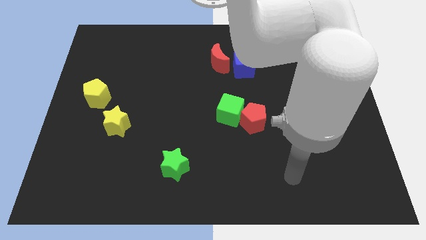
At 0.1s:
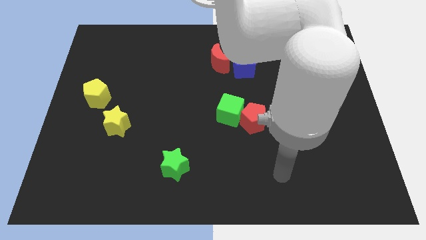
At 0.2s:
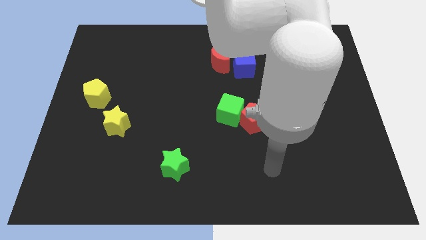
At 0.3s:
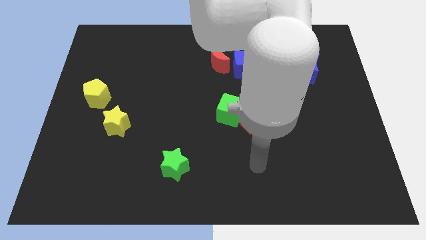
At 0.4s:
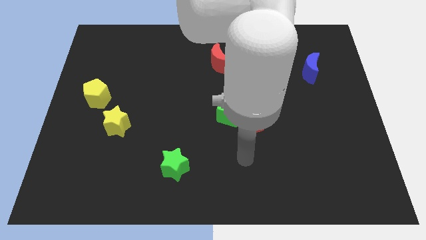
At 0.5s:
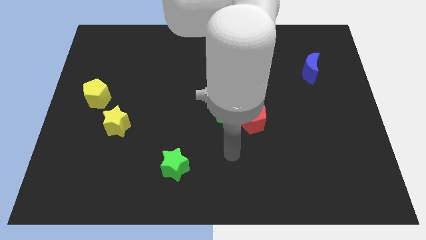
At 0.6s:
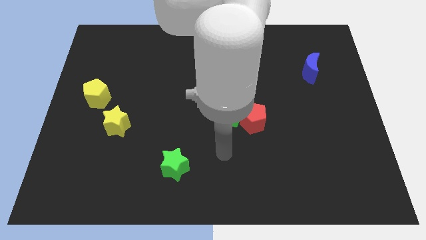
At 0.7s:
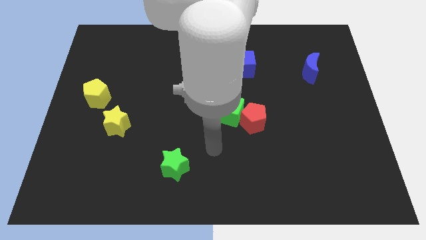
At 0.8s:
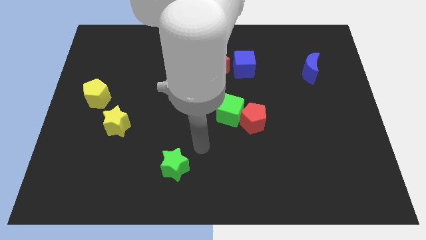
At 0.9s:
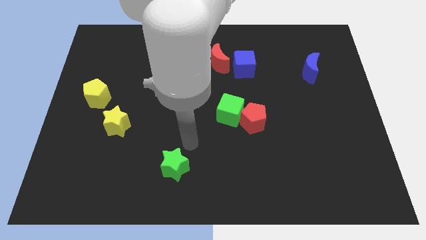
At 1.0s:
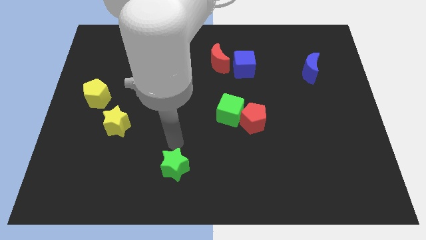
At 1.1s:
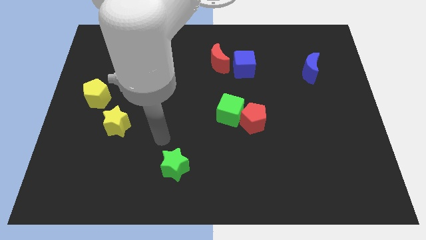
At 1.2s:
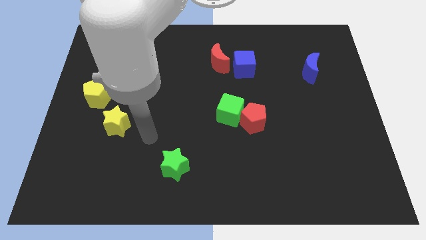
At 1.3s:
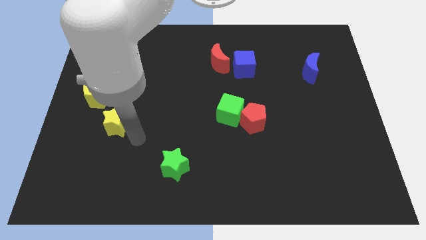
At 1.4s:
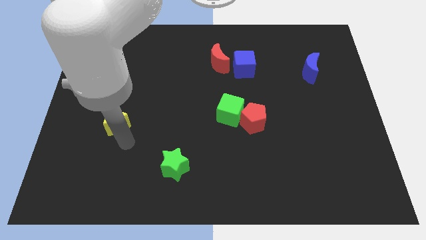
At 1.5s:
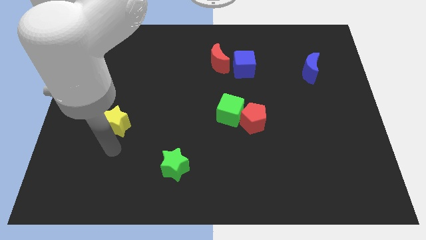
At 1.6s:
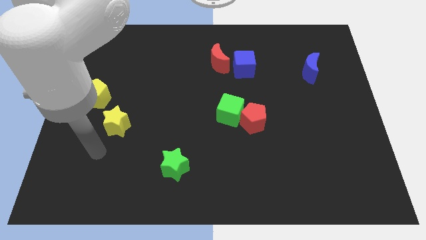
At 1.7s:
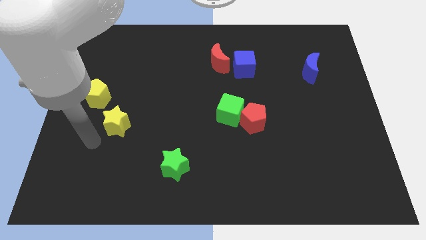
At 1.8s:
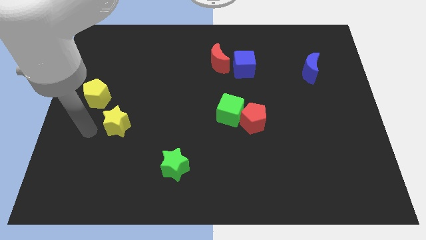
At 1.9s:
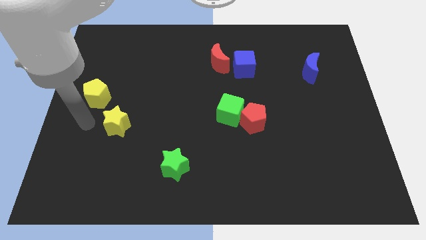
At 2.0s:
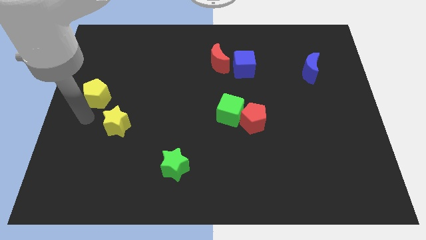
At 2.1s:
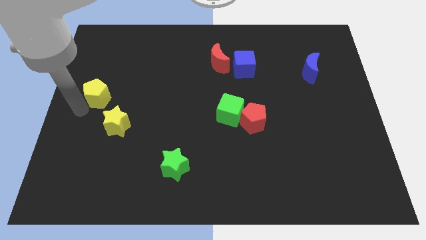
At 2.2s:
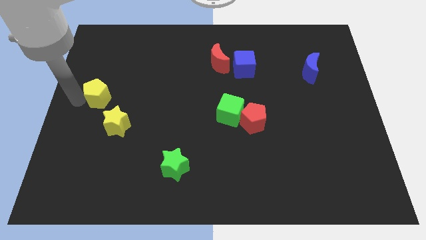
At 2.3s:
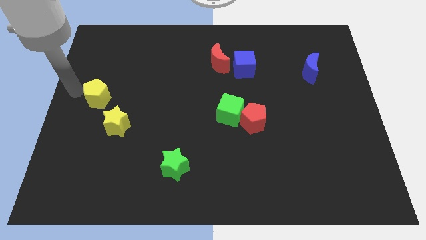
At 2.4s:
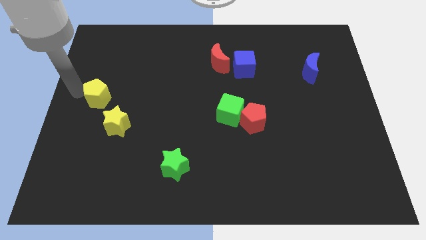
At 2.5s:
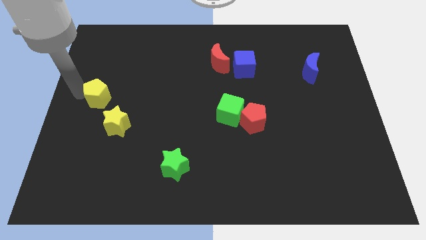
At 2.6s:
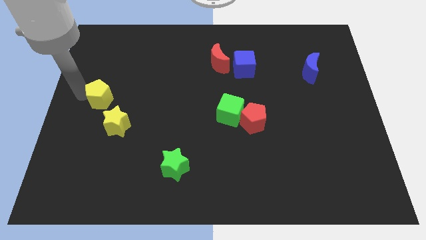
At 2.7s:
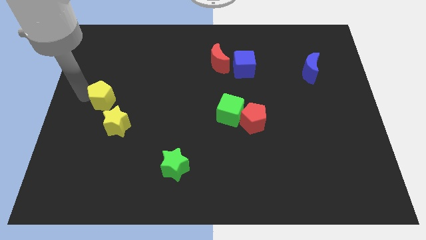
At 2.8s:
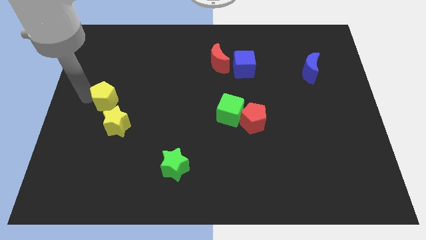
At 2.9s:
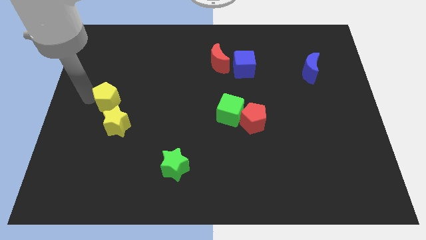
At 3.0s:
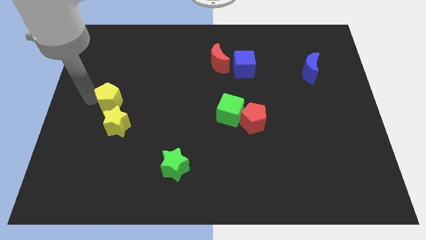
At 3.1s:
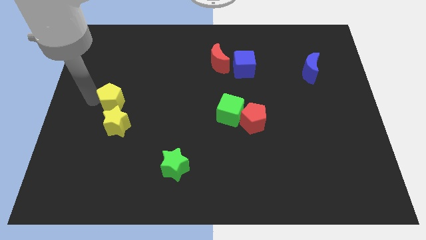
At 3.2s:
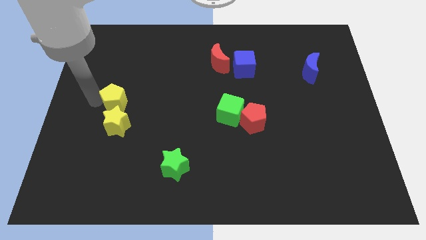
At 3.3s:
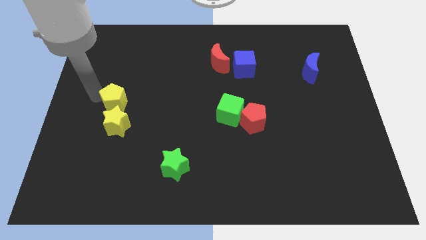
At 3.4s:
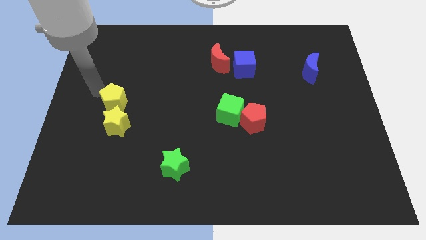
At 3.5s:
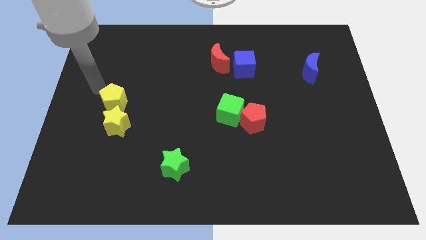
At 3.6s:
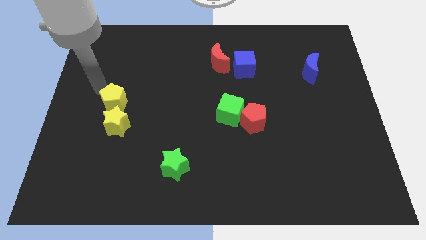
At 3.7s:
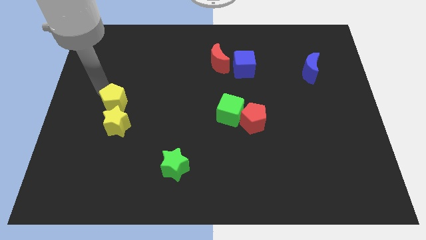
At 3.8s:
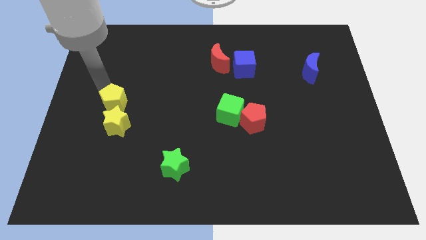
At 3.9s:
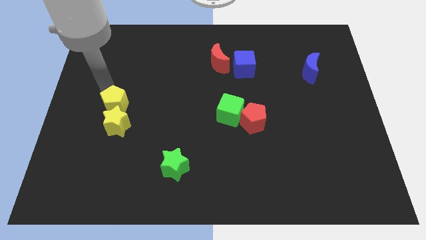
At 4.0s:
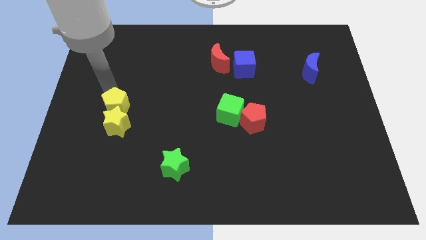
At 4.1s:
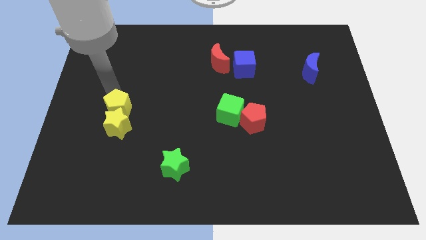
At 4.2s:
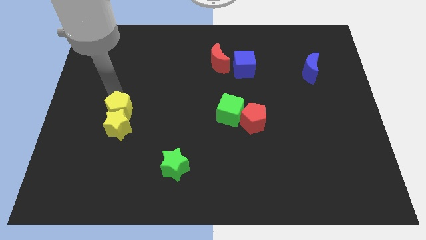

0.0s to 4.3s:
slightly push the yellow pentagon down and to the right diagonally

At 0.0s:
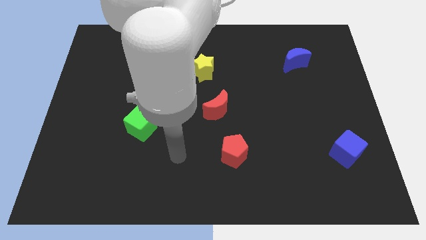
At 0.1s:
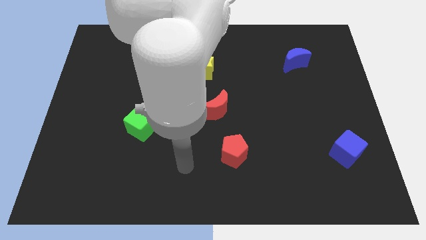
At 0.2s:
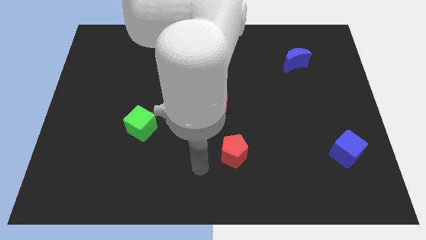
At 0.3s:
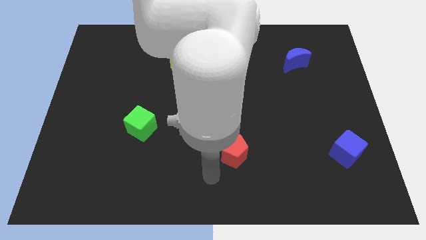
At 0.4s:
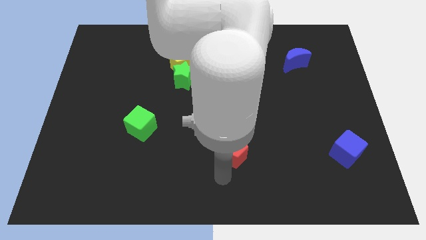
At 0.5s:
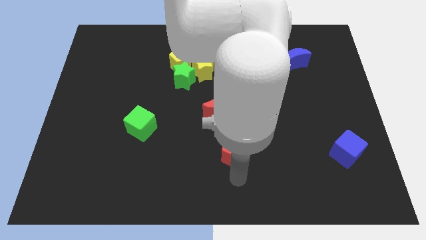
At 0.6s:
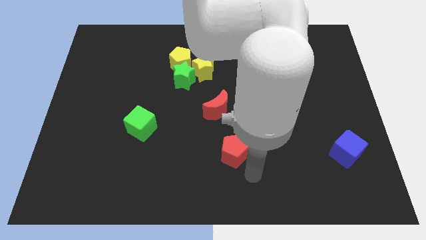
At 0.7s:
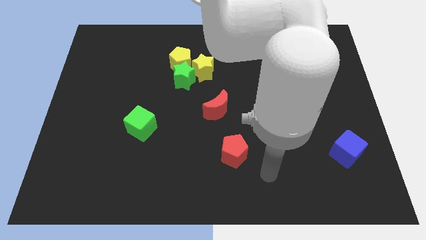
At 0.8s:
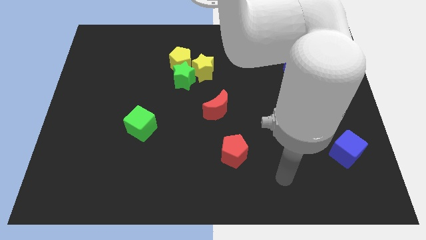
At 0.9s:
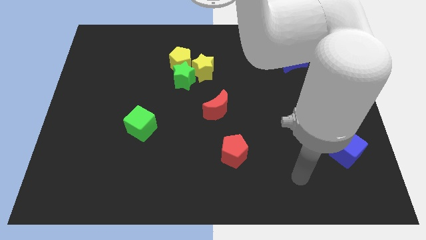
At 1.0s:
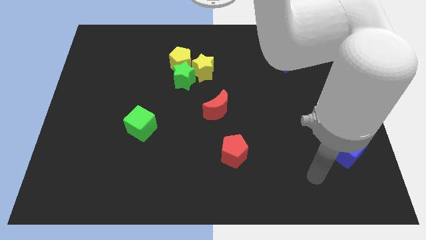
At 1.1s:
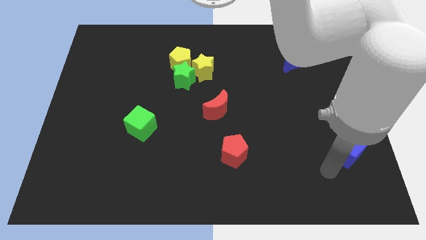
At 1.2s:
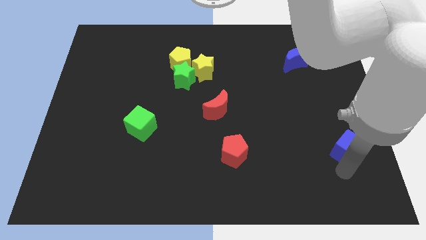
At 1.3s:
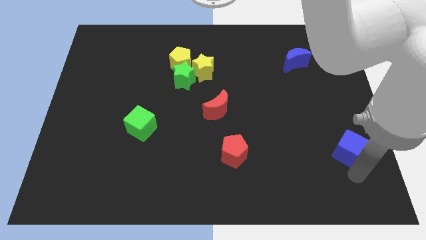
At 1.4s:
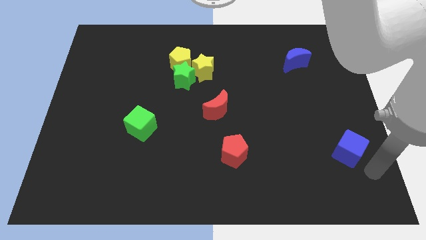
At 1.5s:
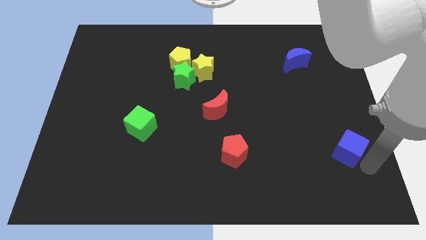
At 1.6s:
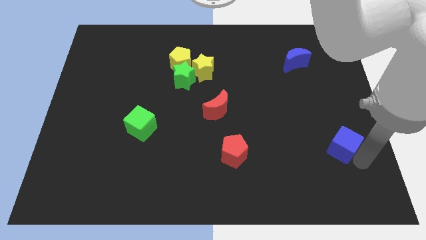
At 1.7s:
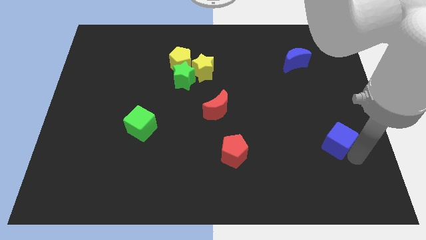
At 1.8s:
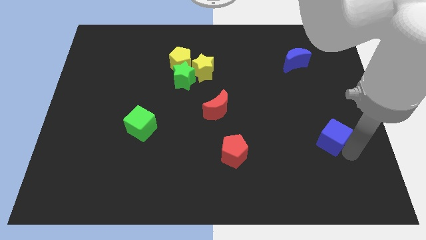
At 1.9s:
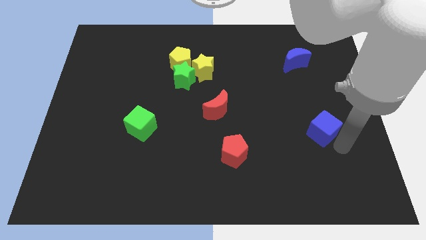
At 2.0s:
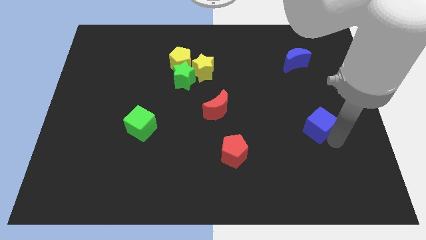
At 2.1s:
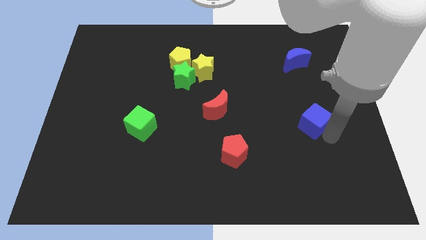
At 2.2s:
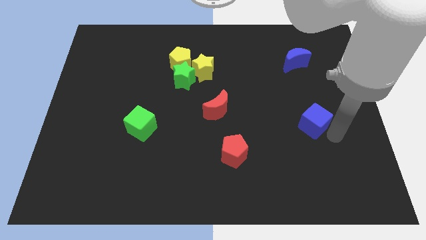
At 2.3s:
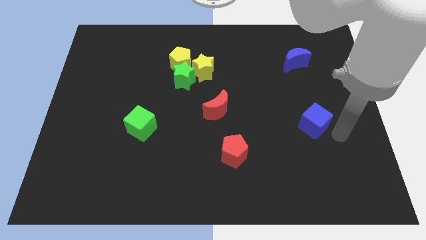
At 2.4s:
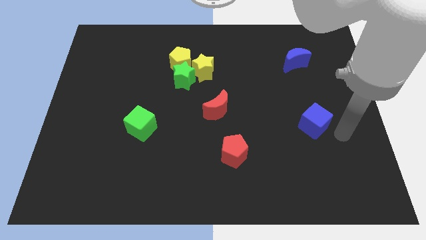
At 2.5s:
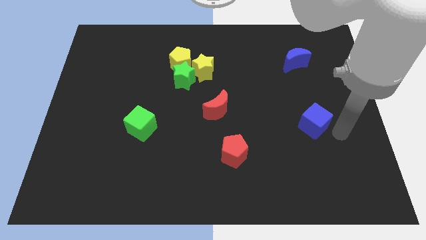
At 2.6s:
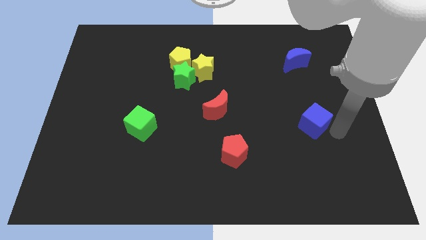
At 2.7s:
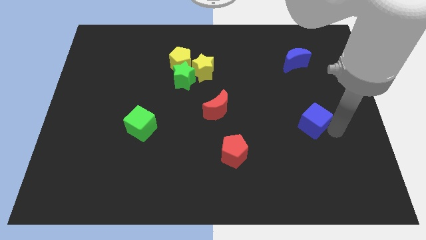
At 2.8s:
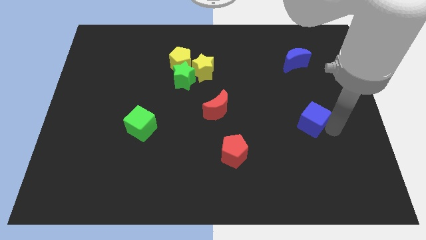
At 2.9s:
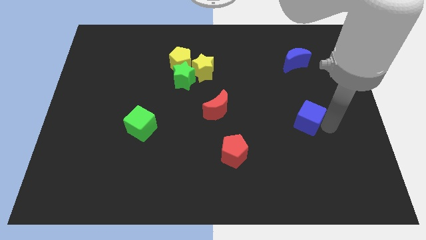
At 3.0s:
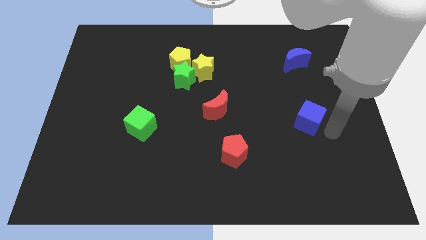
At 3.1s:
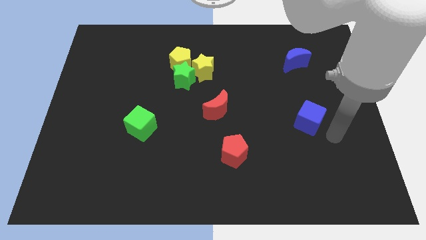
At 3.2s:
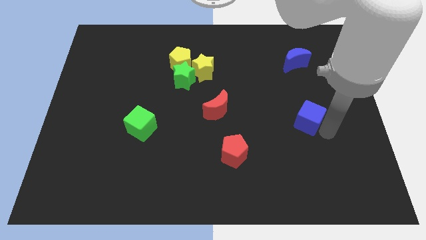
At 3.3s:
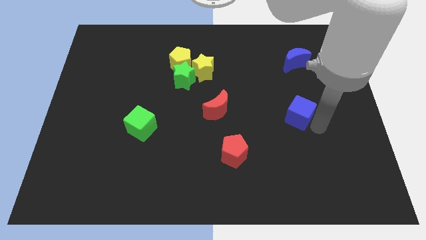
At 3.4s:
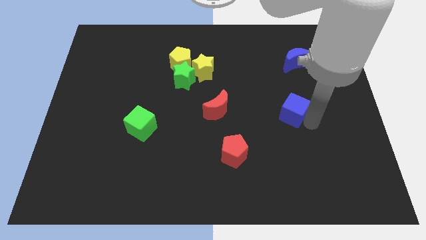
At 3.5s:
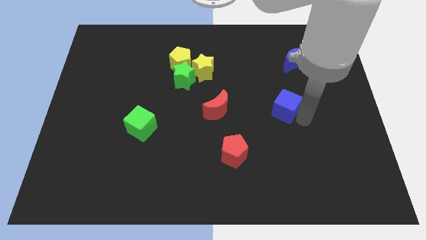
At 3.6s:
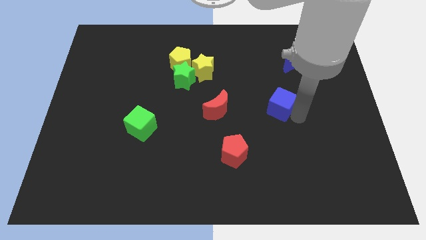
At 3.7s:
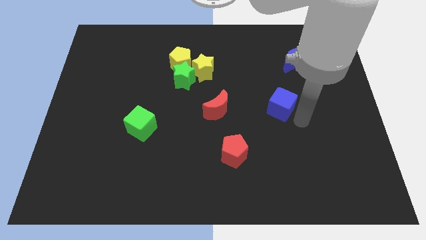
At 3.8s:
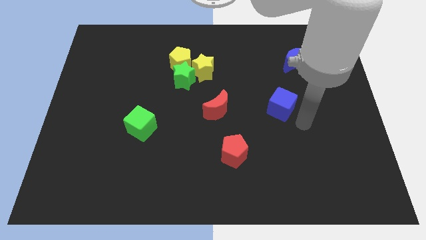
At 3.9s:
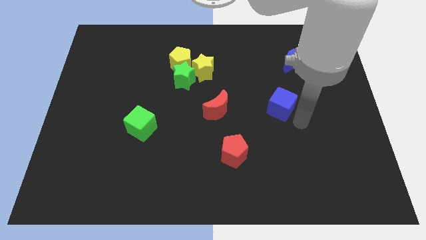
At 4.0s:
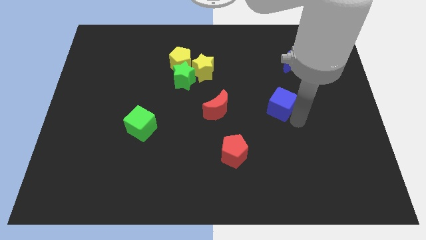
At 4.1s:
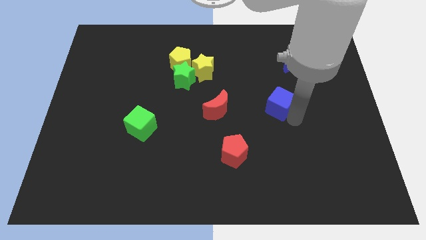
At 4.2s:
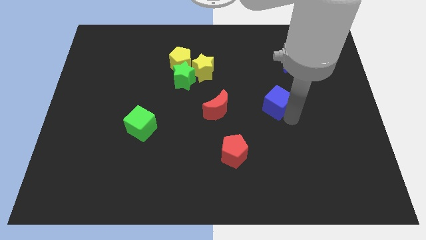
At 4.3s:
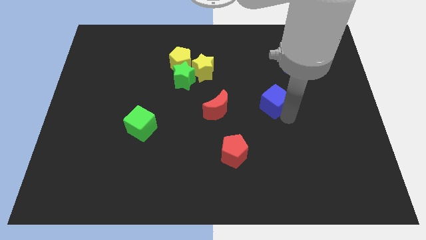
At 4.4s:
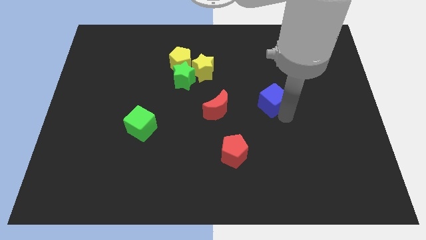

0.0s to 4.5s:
slide the blue cube up and to the left diagonally
